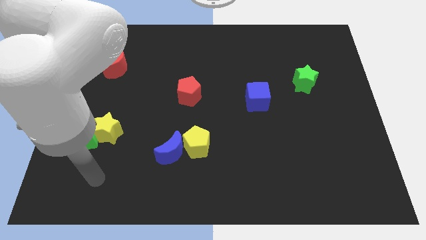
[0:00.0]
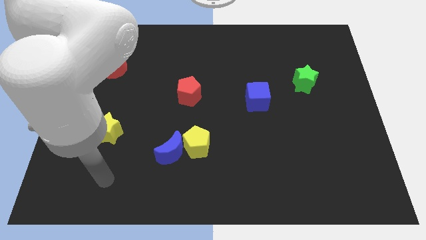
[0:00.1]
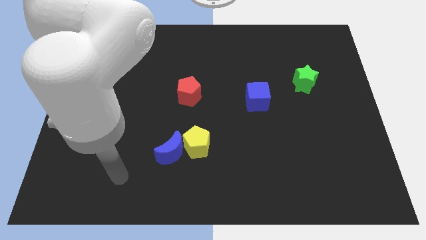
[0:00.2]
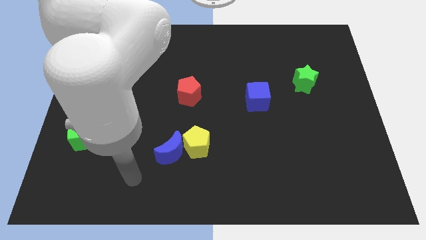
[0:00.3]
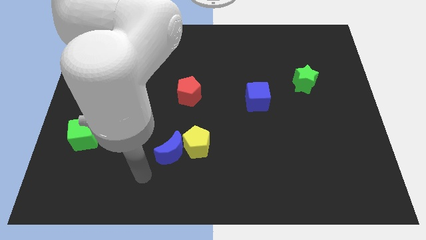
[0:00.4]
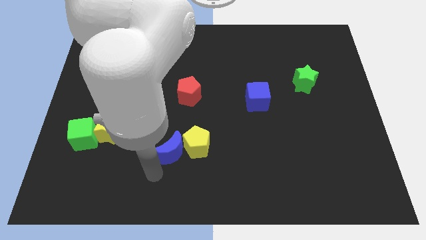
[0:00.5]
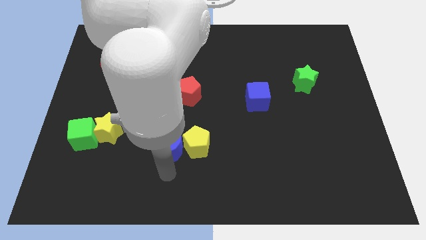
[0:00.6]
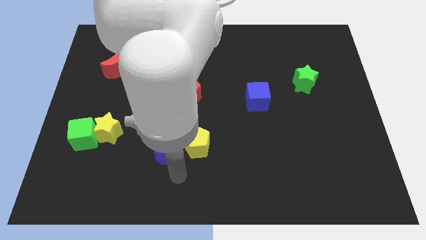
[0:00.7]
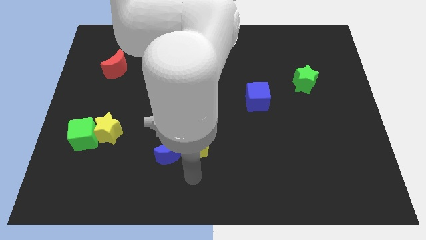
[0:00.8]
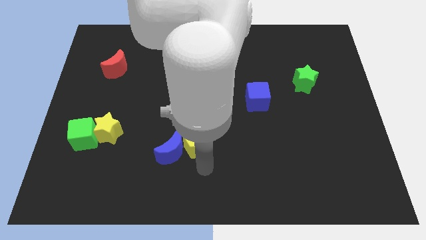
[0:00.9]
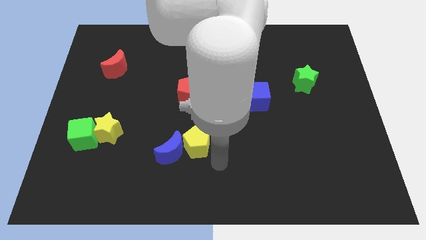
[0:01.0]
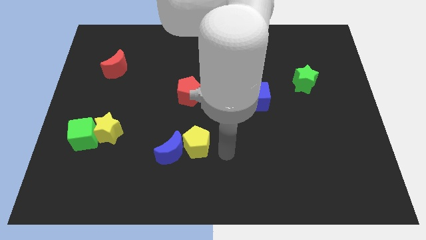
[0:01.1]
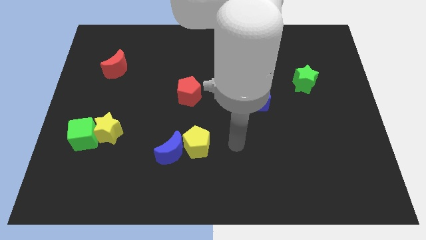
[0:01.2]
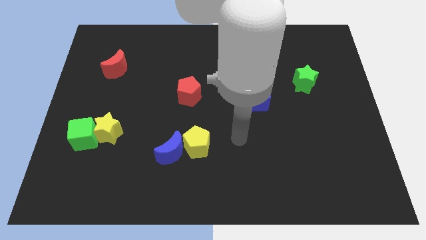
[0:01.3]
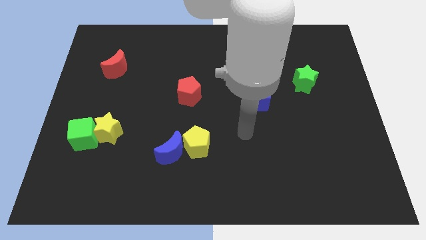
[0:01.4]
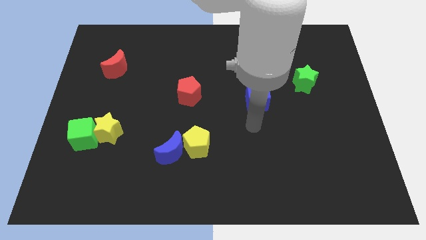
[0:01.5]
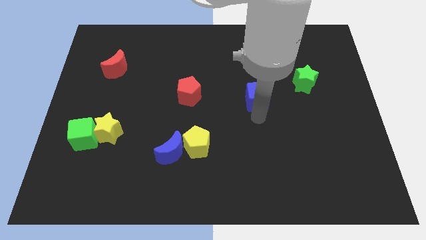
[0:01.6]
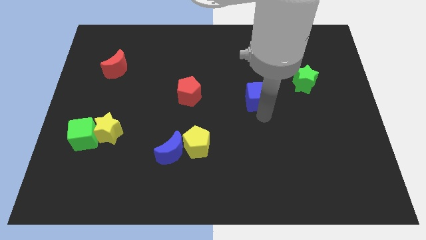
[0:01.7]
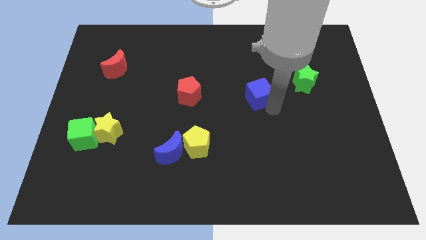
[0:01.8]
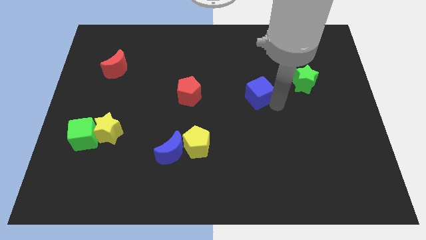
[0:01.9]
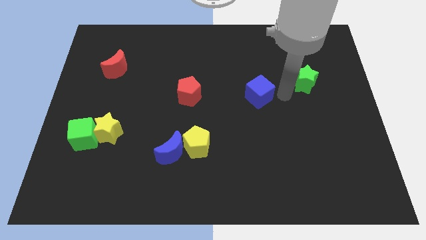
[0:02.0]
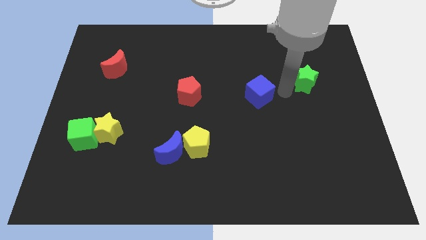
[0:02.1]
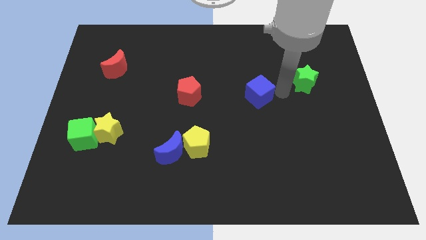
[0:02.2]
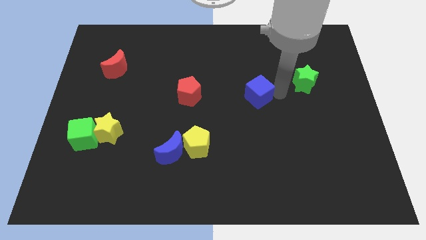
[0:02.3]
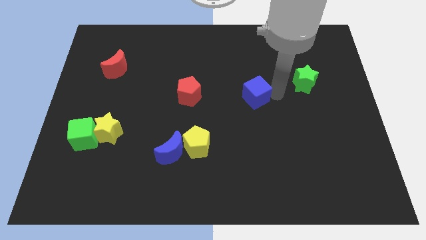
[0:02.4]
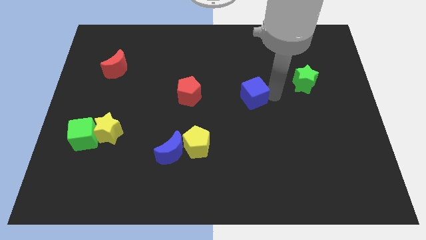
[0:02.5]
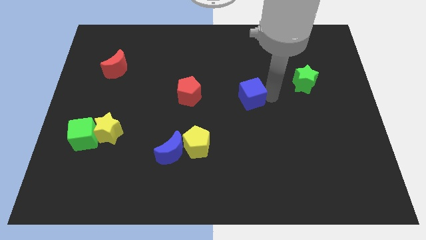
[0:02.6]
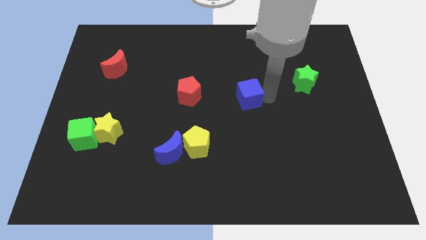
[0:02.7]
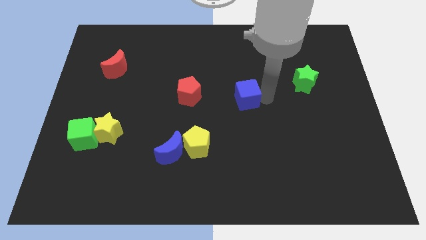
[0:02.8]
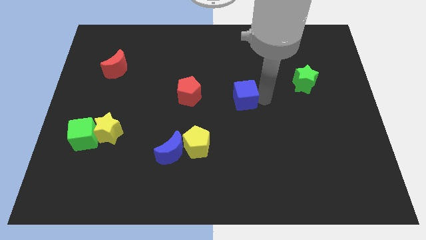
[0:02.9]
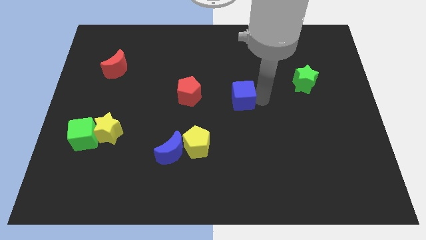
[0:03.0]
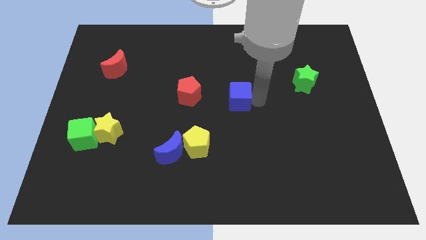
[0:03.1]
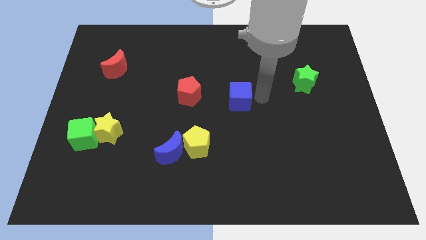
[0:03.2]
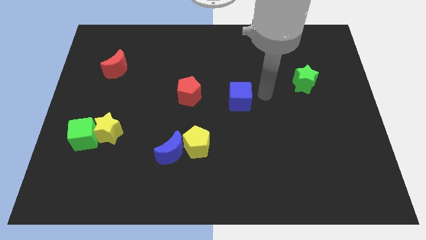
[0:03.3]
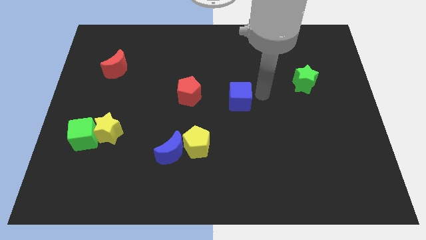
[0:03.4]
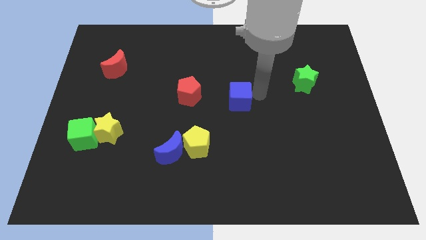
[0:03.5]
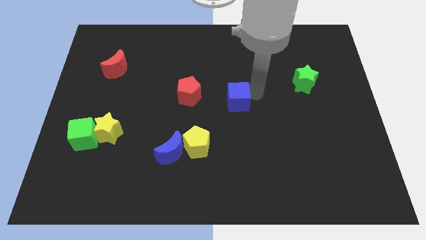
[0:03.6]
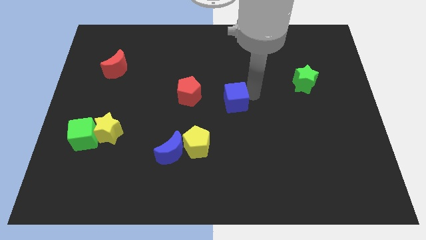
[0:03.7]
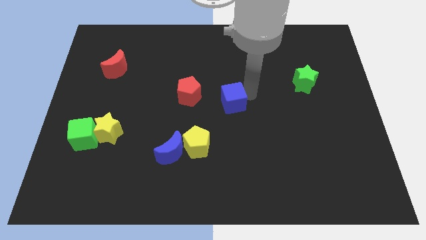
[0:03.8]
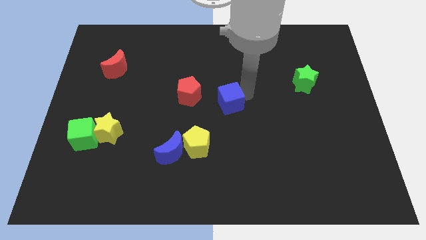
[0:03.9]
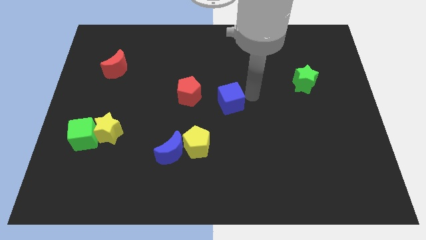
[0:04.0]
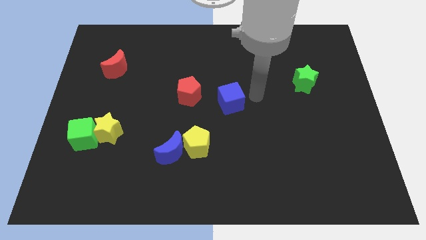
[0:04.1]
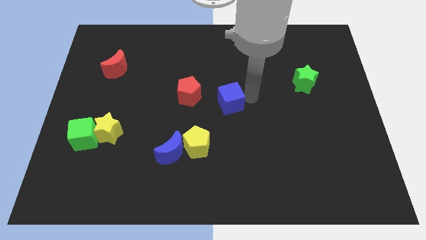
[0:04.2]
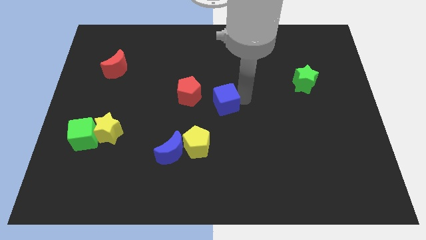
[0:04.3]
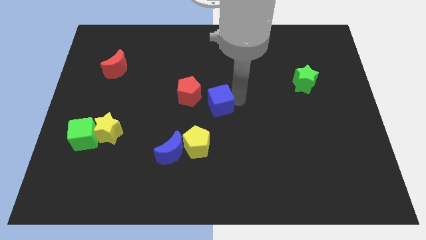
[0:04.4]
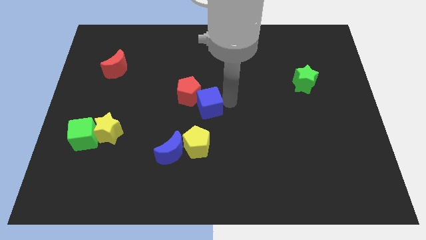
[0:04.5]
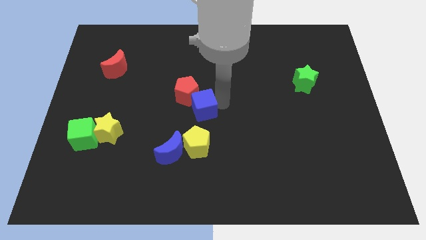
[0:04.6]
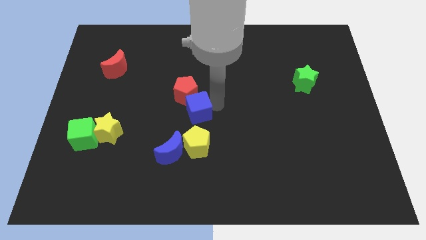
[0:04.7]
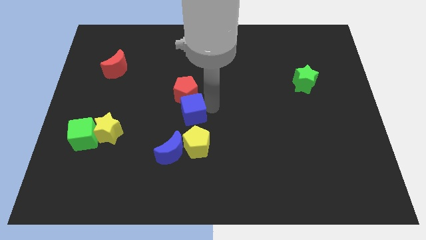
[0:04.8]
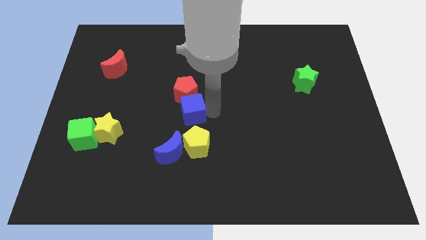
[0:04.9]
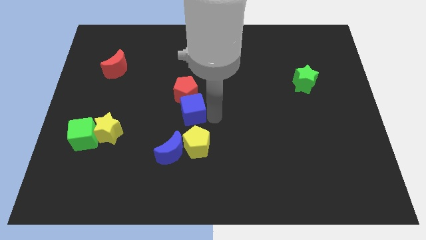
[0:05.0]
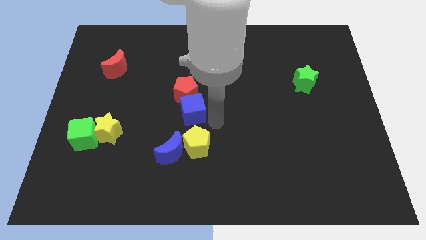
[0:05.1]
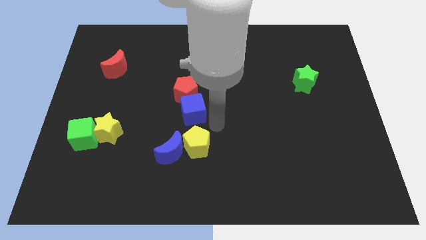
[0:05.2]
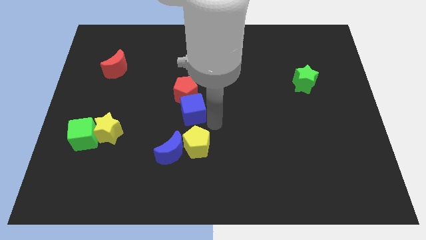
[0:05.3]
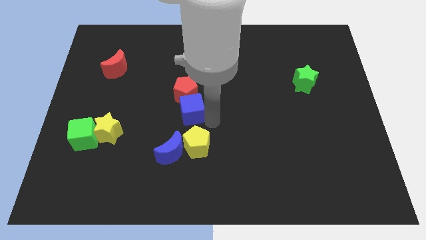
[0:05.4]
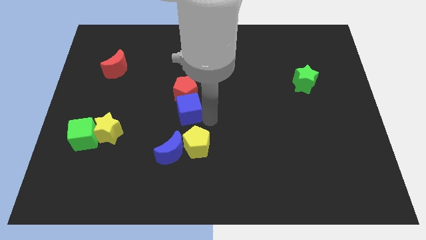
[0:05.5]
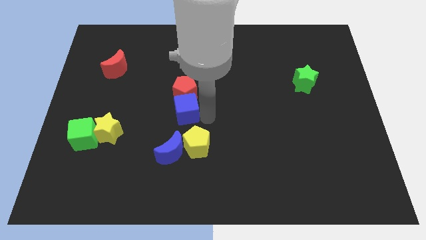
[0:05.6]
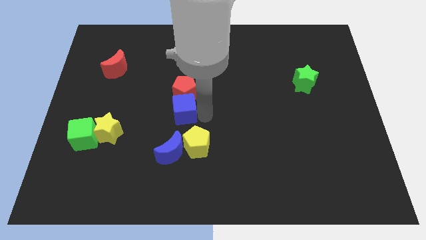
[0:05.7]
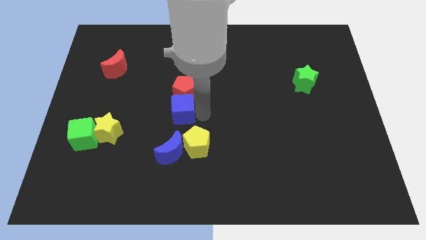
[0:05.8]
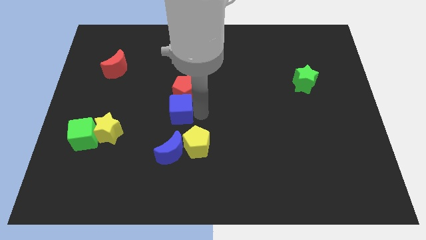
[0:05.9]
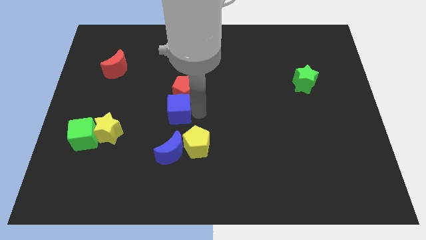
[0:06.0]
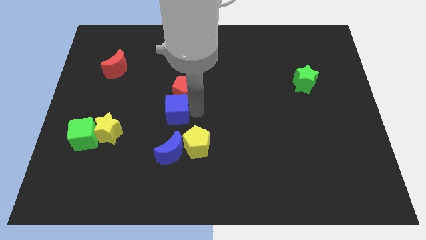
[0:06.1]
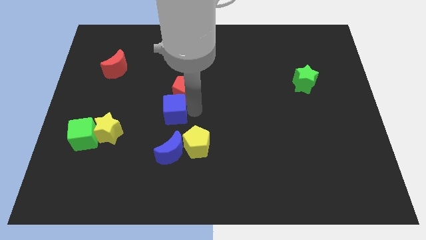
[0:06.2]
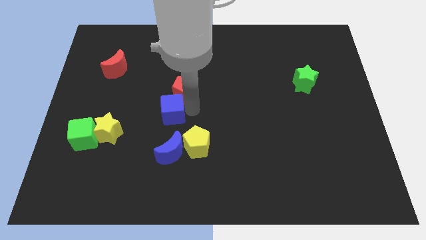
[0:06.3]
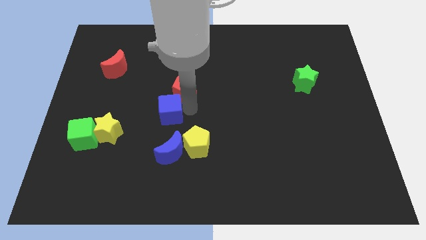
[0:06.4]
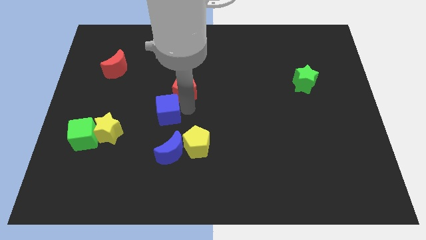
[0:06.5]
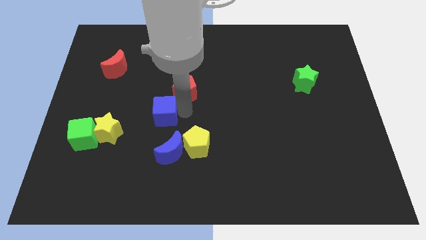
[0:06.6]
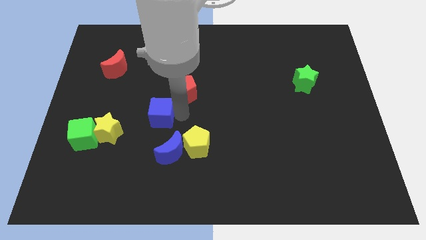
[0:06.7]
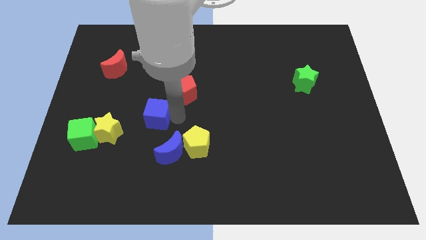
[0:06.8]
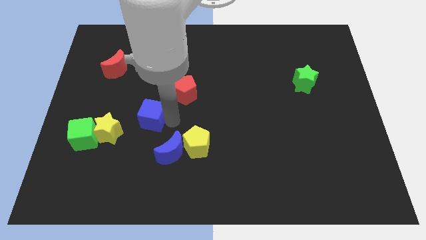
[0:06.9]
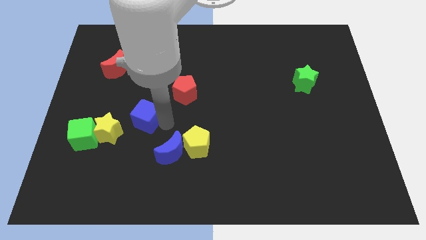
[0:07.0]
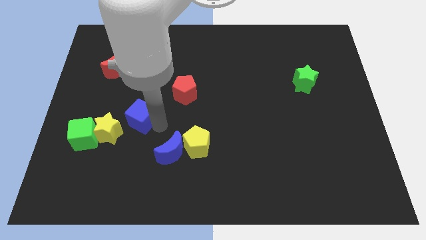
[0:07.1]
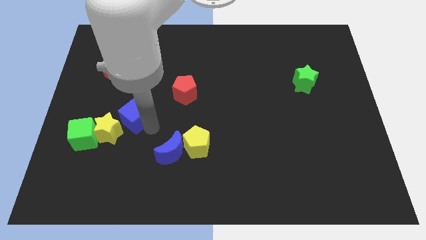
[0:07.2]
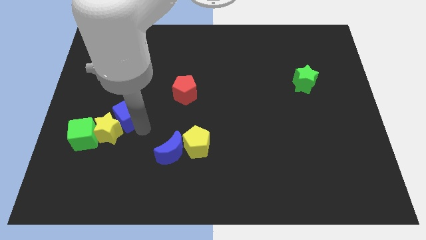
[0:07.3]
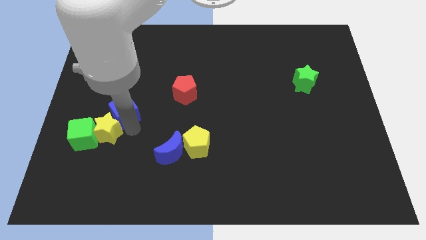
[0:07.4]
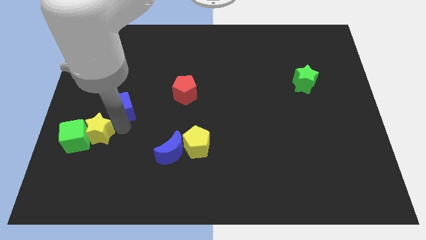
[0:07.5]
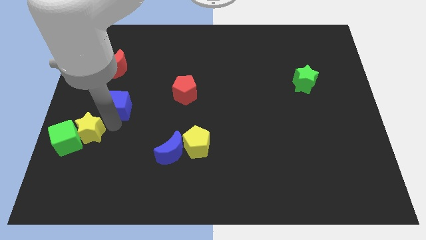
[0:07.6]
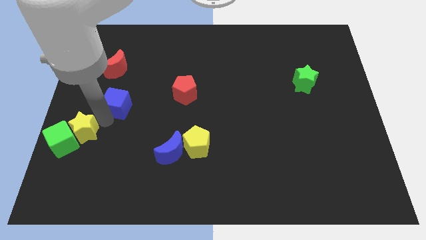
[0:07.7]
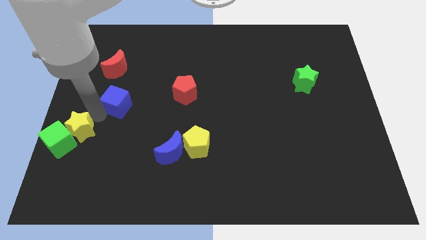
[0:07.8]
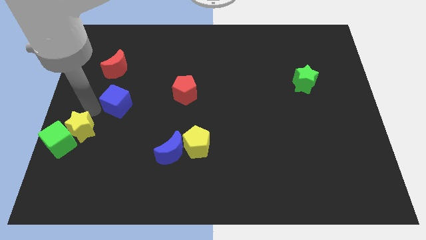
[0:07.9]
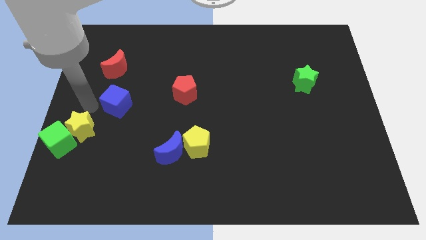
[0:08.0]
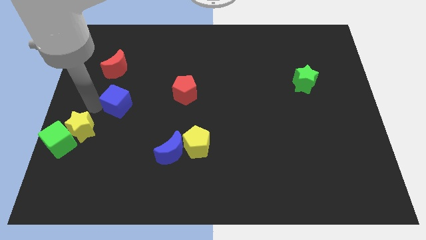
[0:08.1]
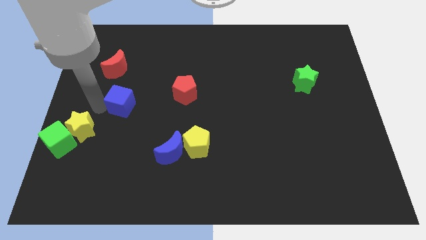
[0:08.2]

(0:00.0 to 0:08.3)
put the blue cube just left of the red pentagon
